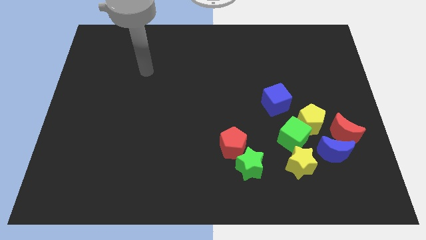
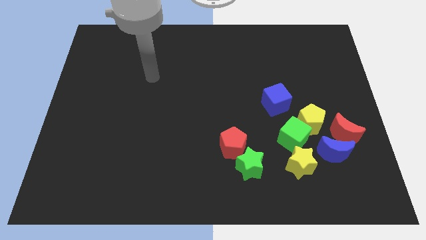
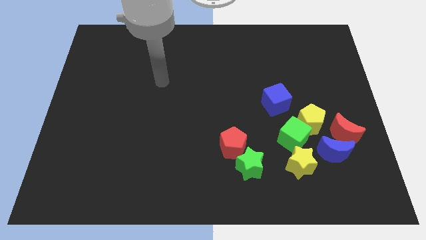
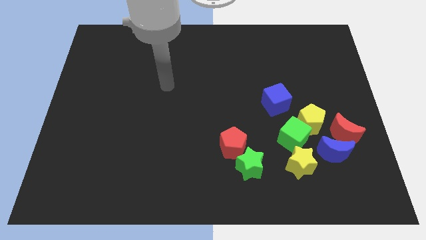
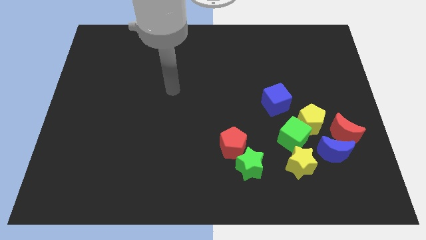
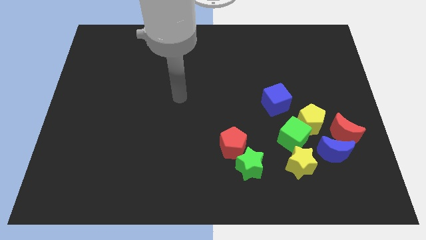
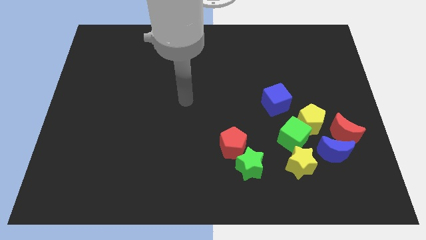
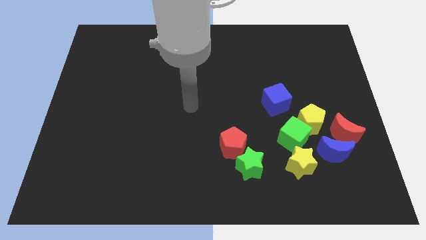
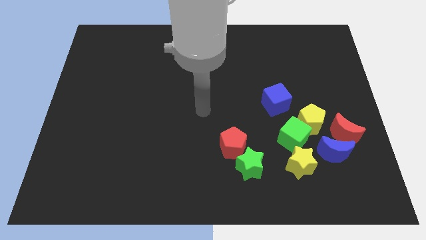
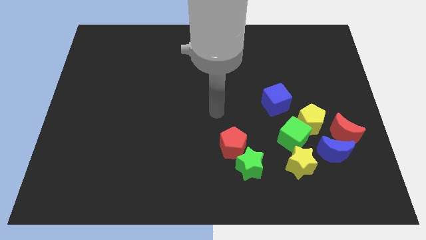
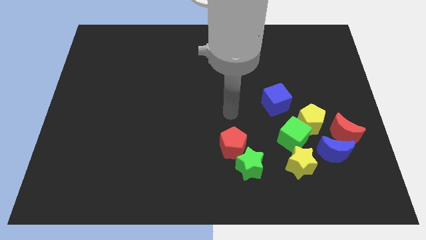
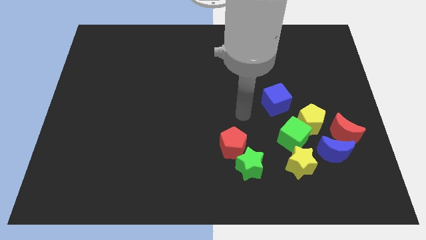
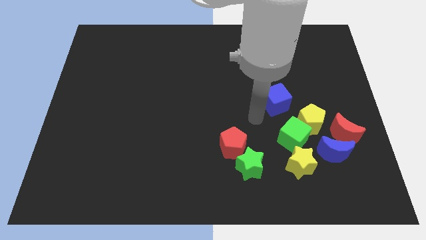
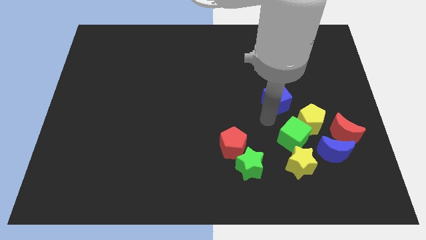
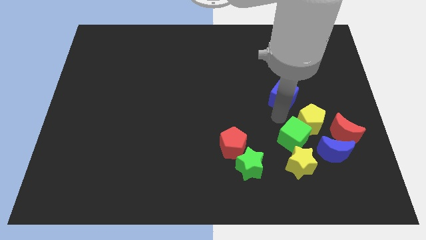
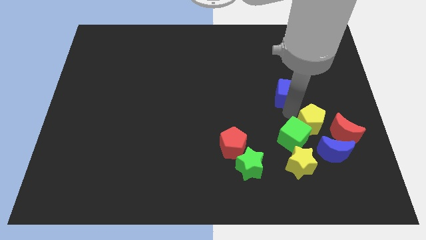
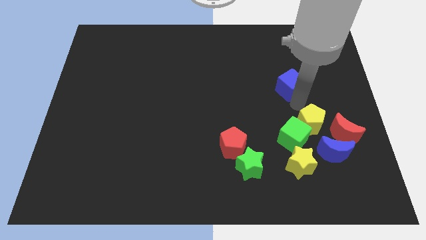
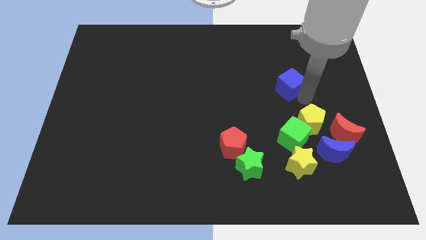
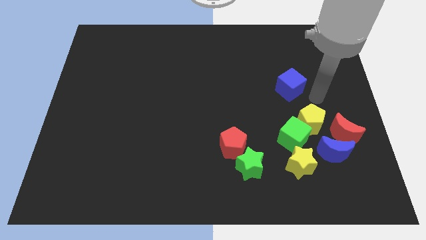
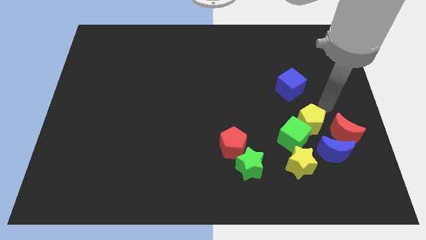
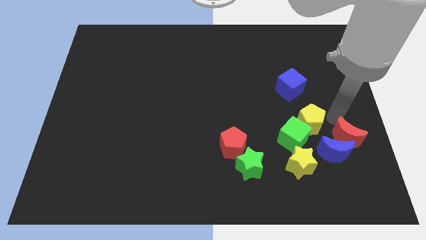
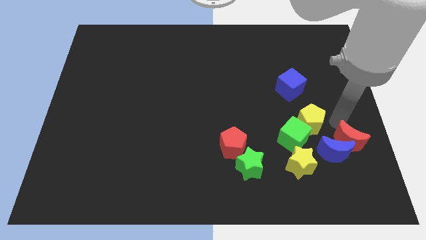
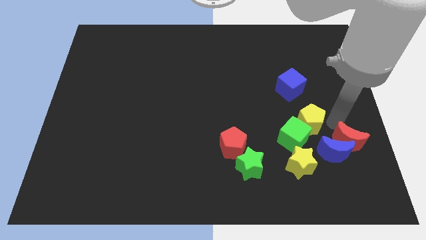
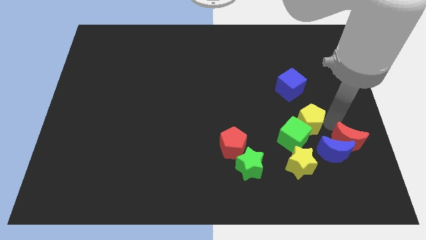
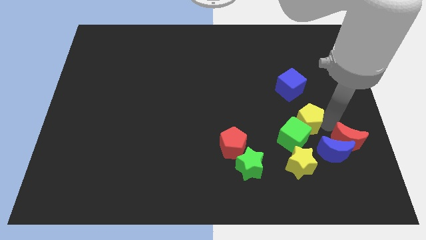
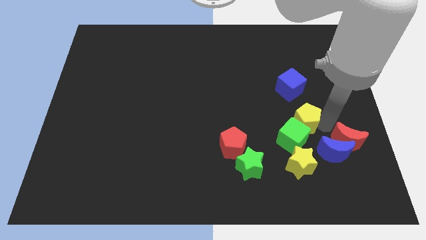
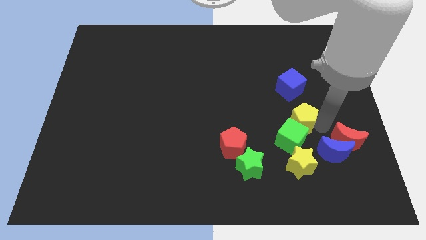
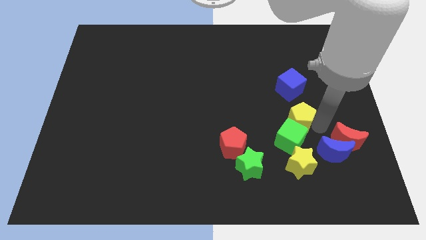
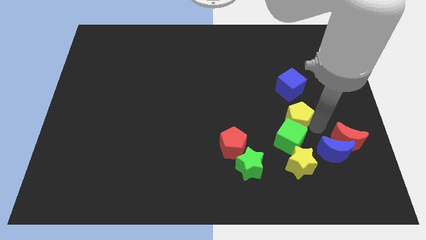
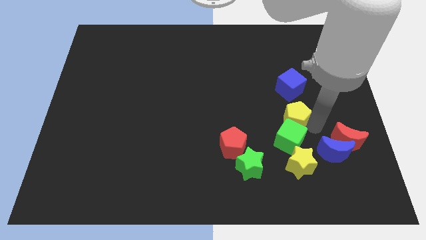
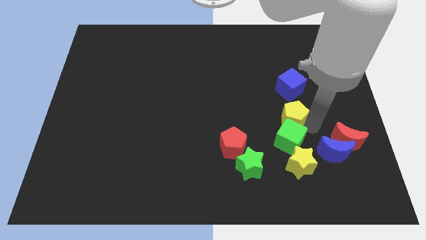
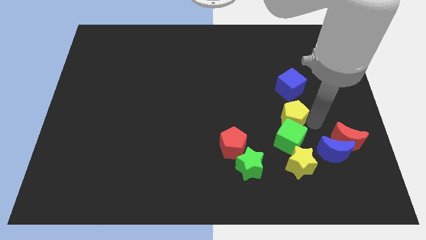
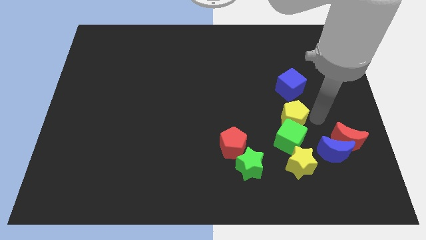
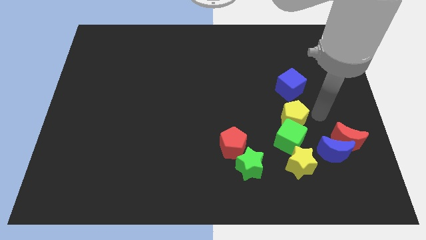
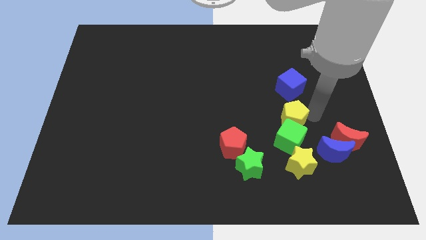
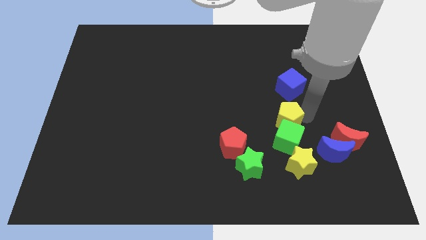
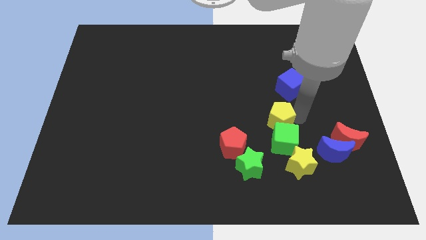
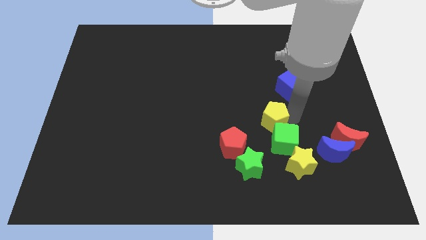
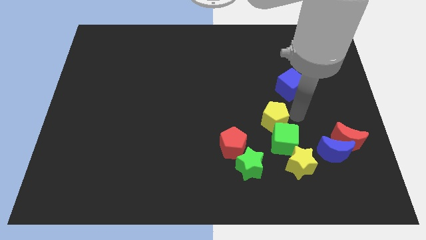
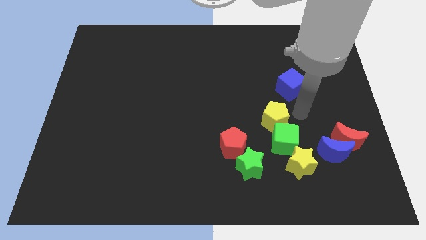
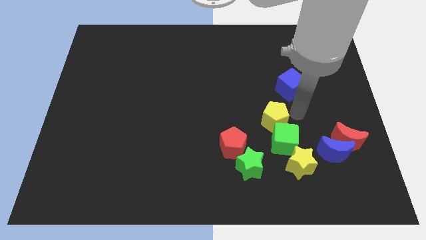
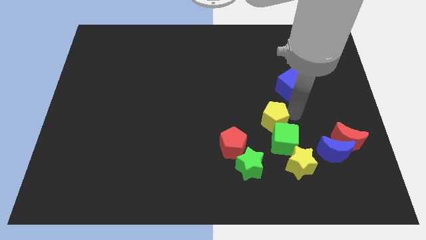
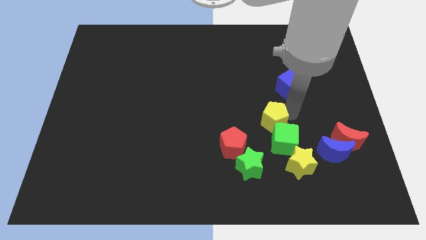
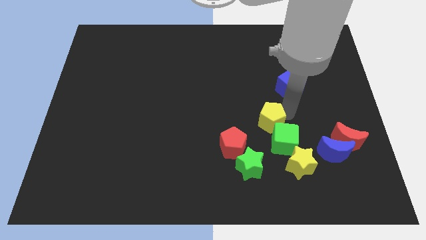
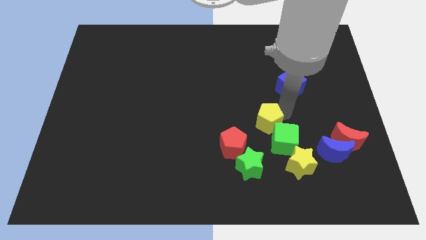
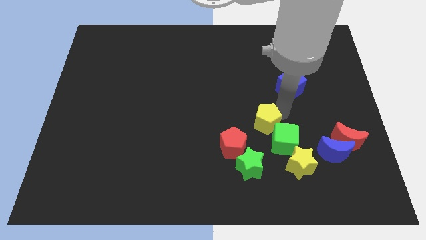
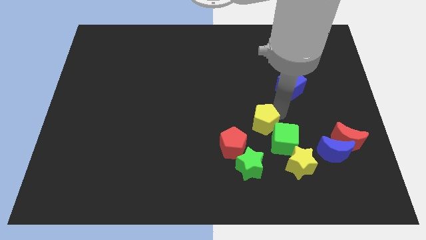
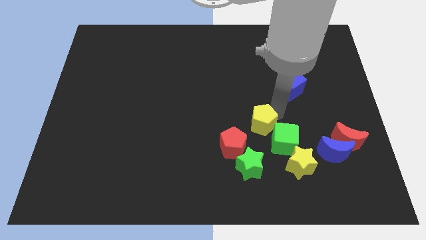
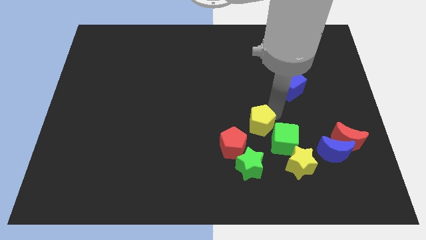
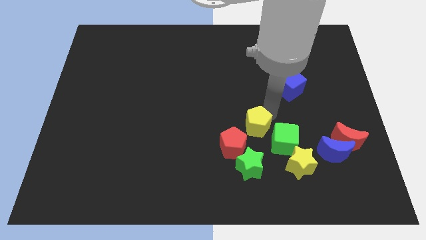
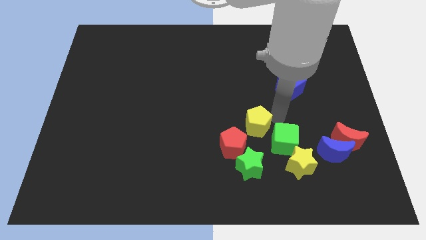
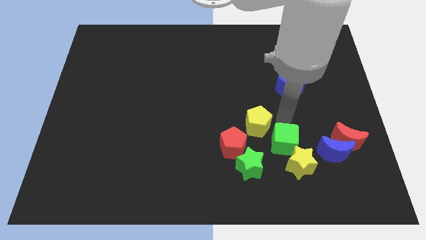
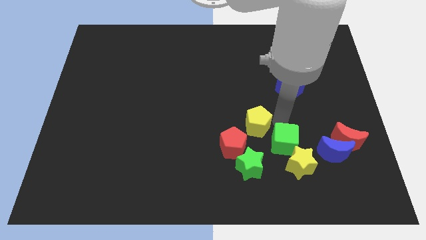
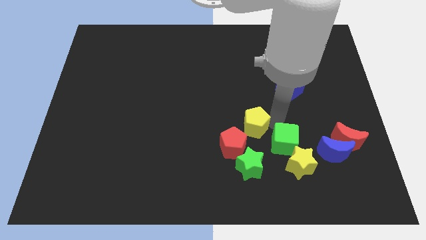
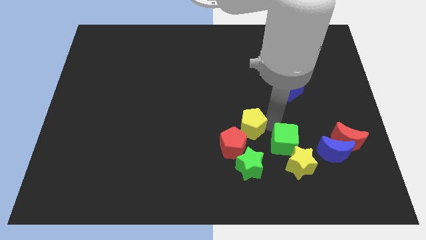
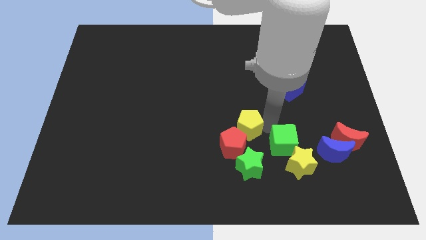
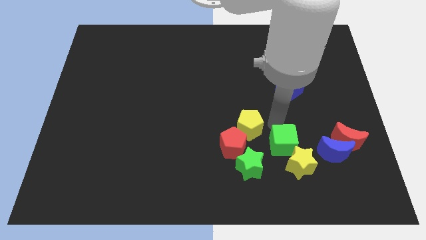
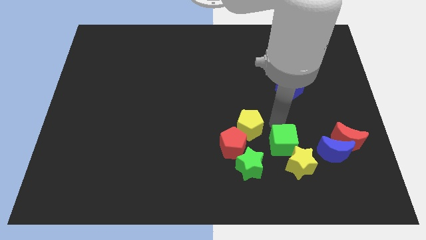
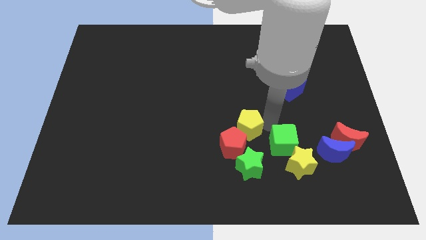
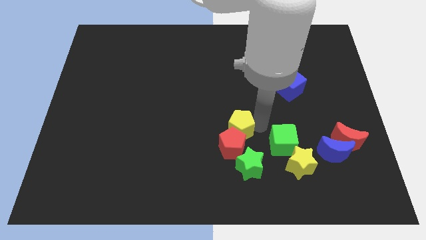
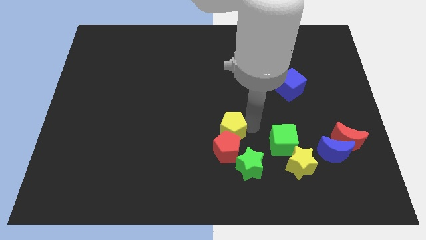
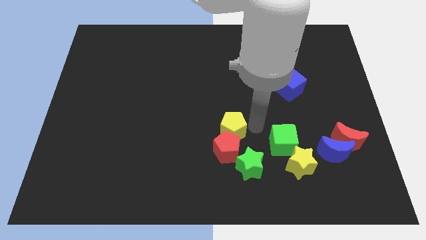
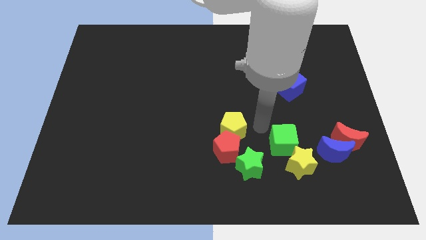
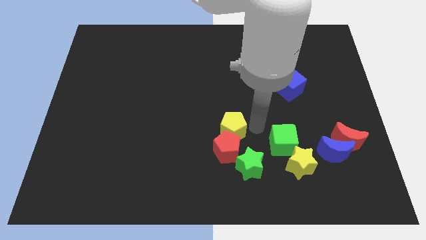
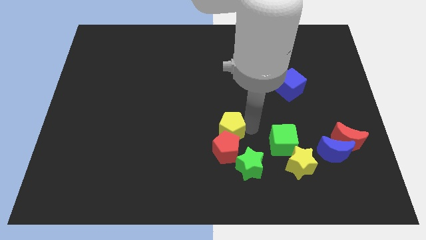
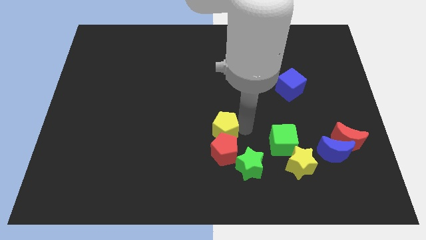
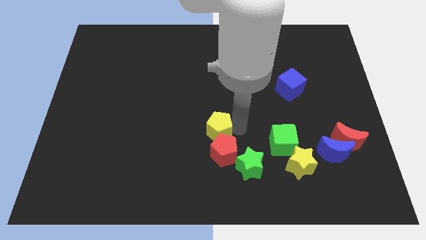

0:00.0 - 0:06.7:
push the yellow pentagon left

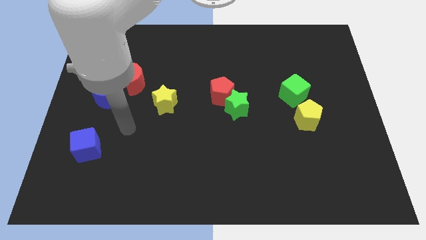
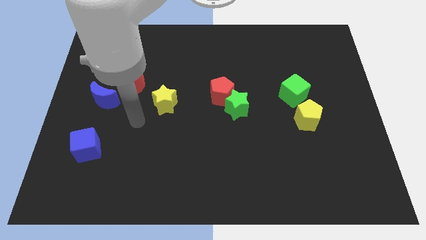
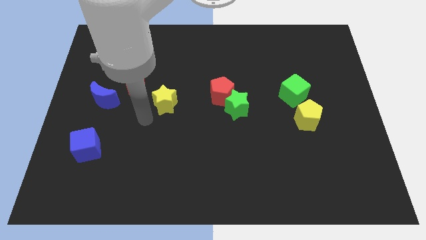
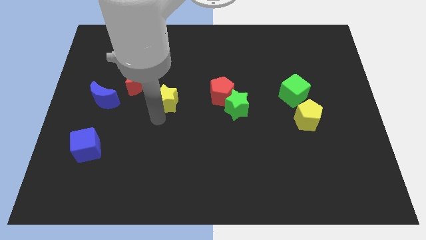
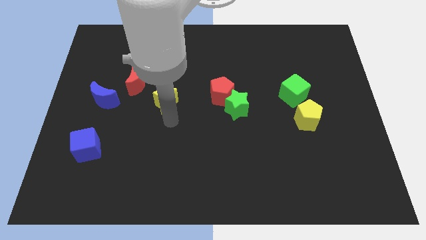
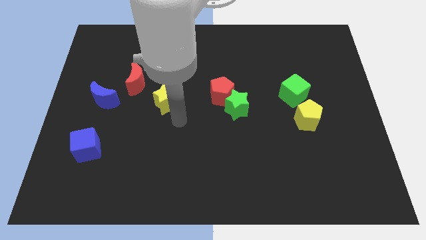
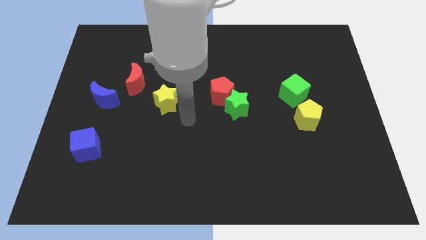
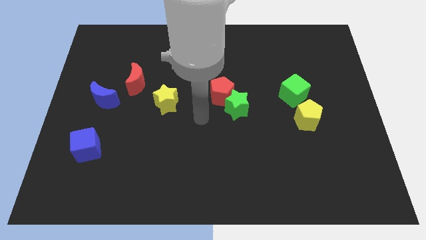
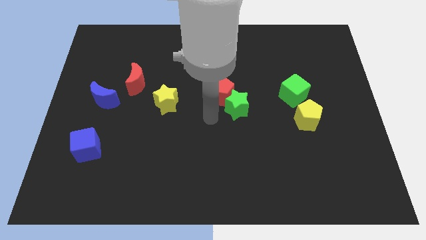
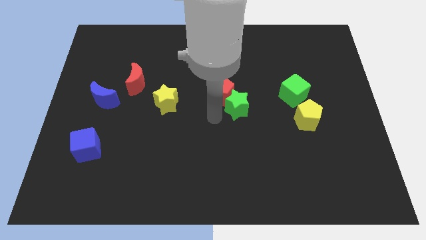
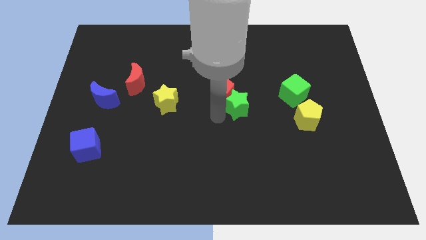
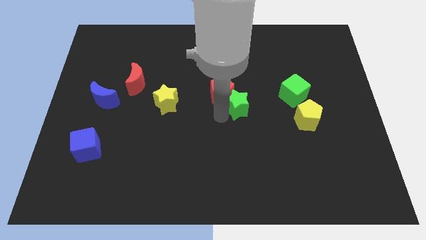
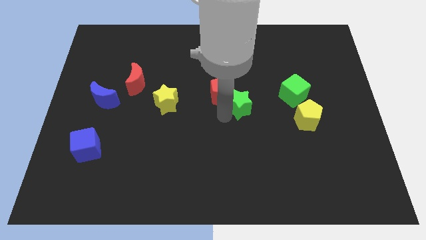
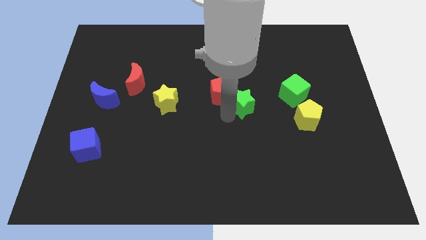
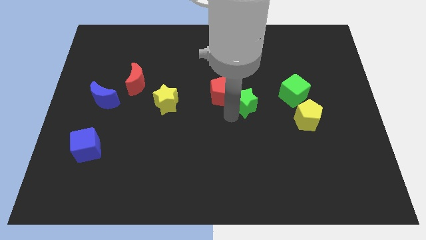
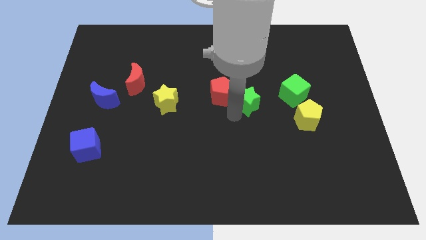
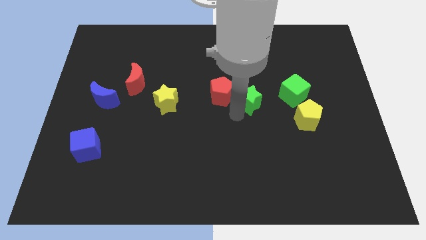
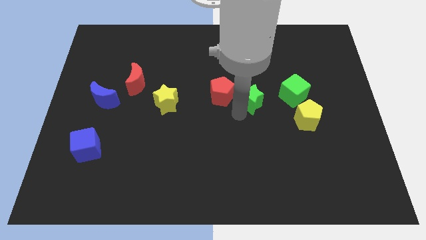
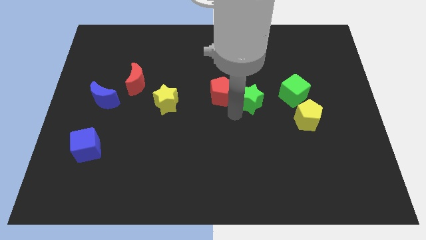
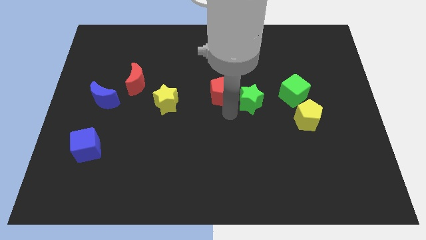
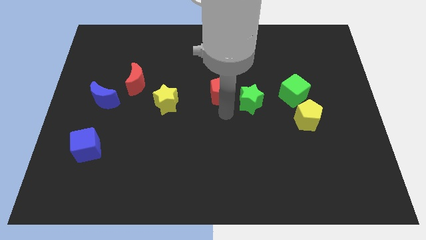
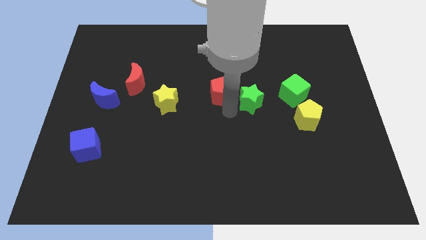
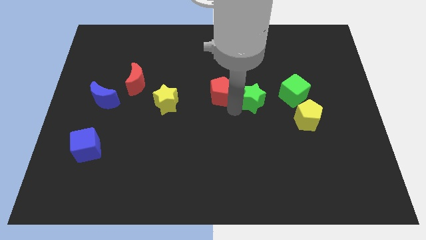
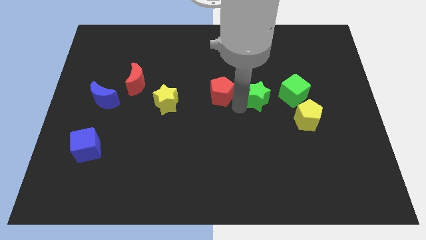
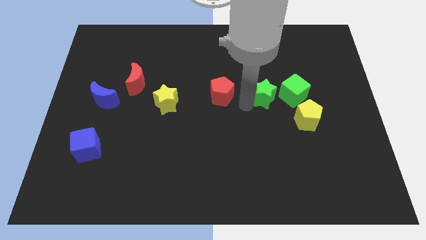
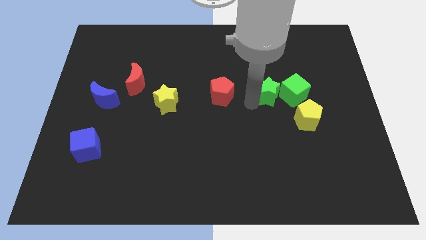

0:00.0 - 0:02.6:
slightly move the green star right
